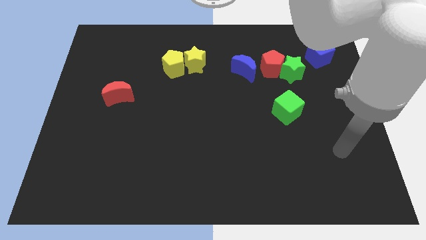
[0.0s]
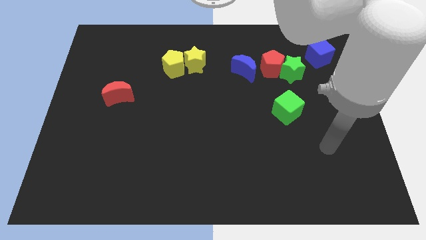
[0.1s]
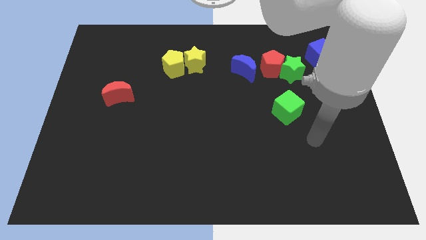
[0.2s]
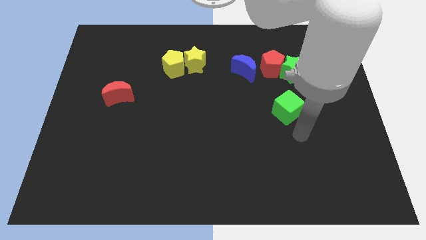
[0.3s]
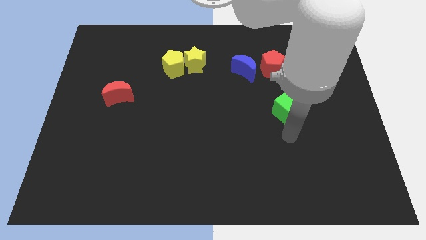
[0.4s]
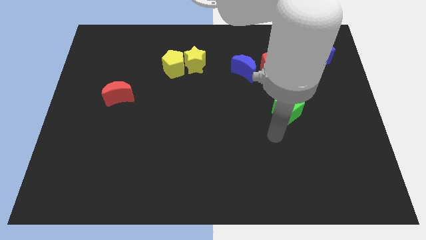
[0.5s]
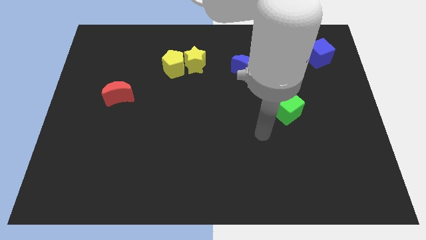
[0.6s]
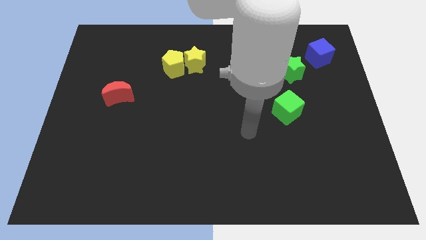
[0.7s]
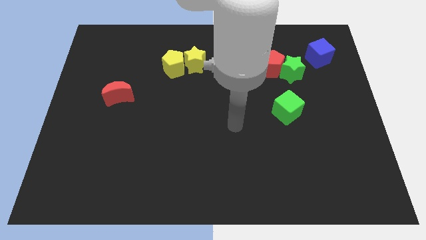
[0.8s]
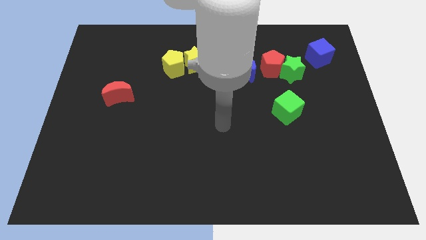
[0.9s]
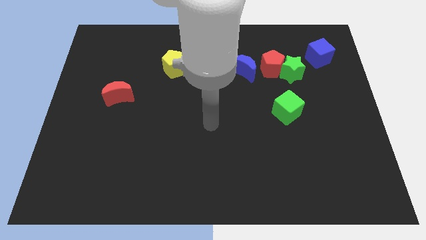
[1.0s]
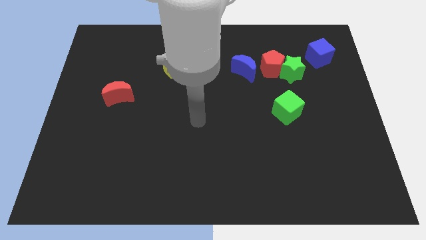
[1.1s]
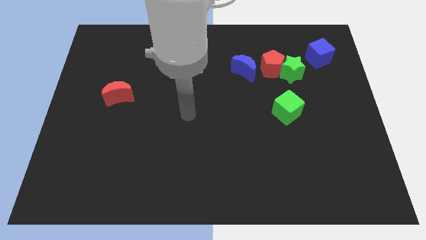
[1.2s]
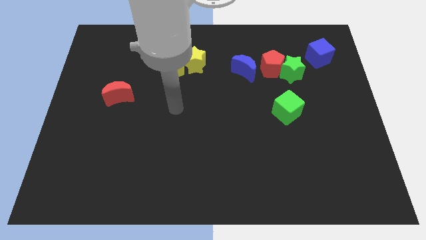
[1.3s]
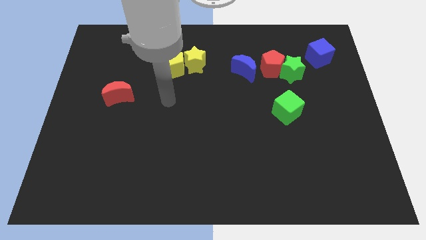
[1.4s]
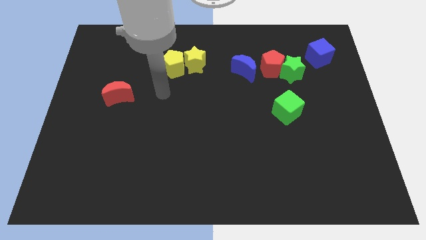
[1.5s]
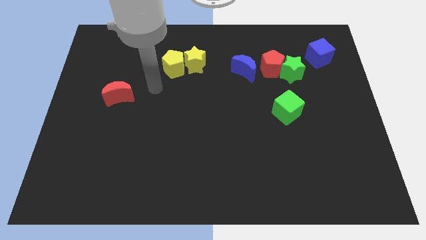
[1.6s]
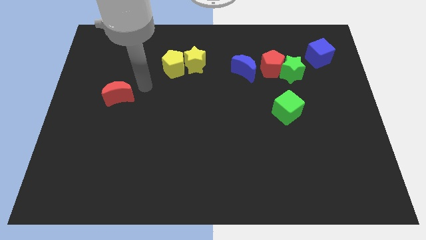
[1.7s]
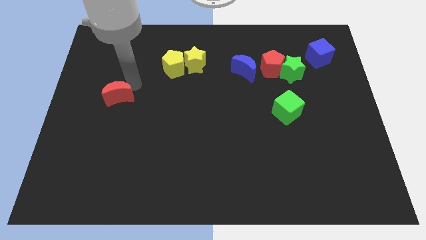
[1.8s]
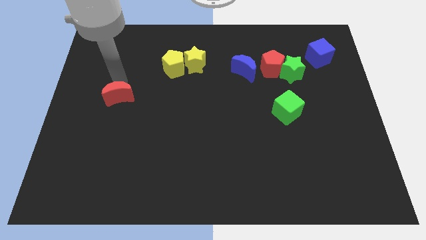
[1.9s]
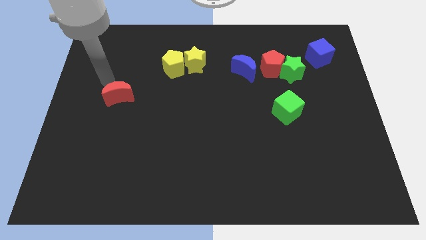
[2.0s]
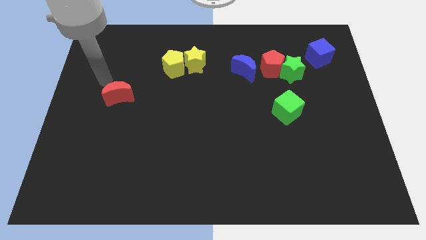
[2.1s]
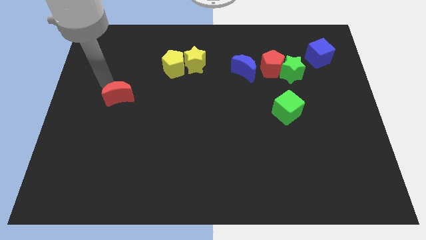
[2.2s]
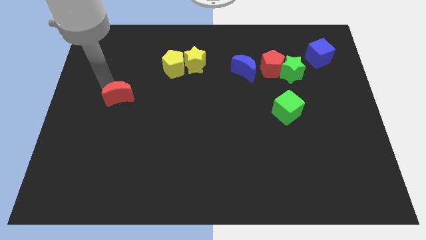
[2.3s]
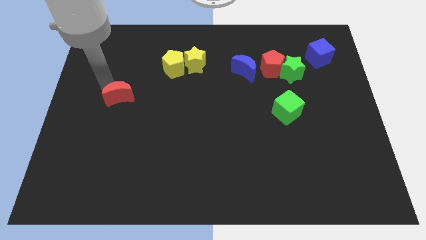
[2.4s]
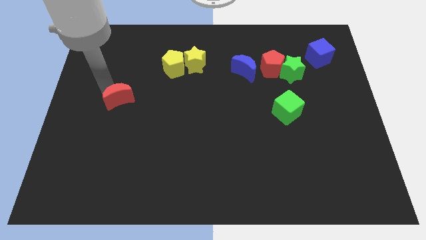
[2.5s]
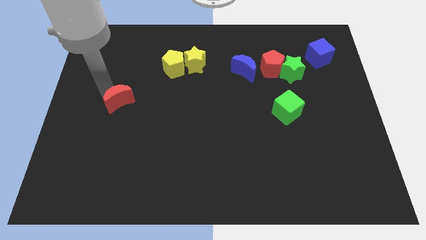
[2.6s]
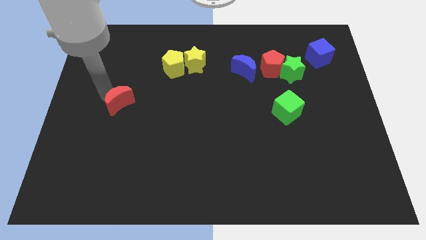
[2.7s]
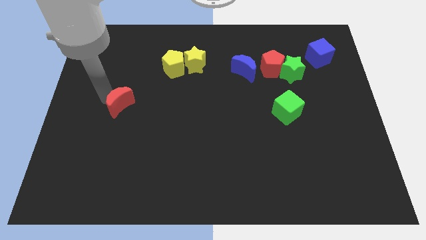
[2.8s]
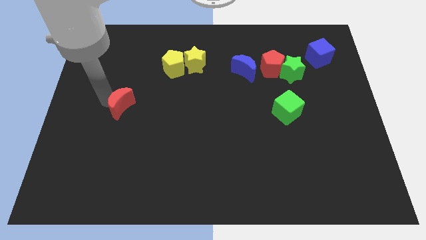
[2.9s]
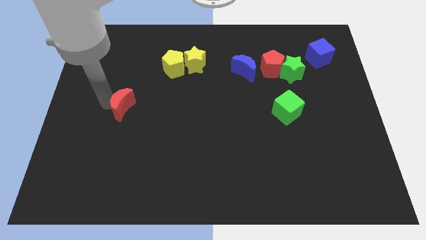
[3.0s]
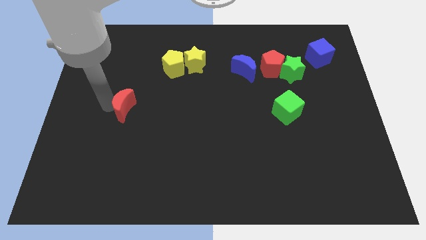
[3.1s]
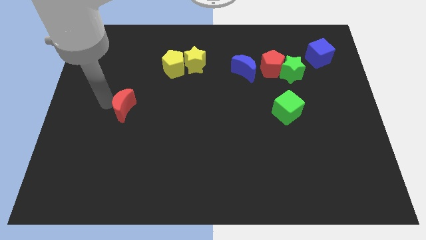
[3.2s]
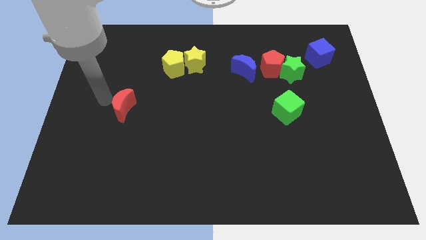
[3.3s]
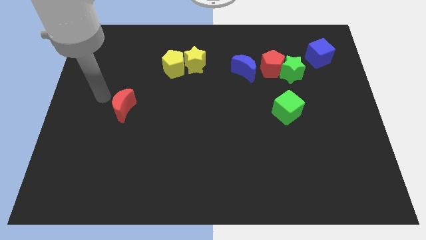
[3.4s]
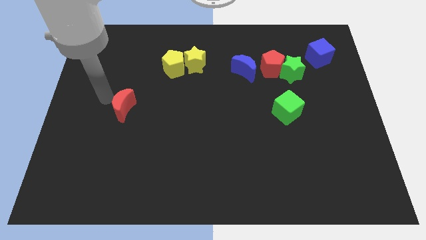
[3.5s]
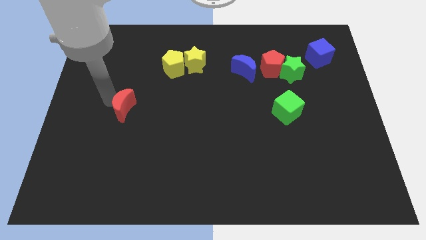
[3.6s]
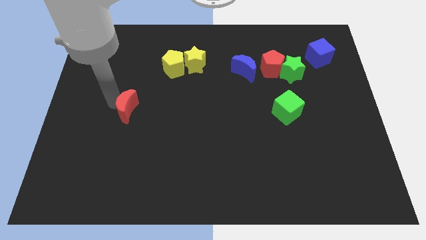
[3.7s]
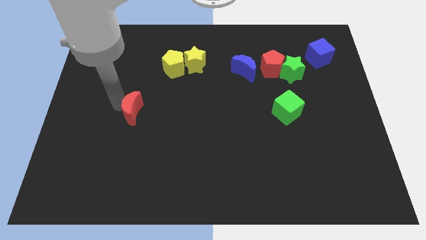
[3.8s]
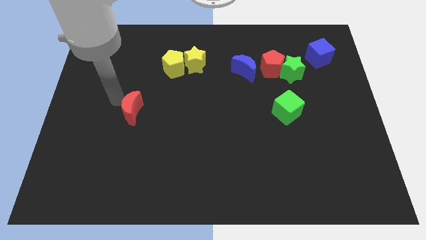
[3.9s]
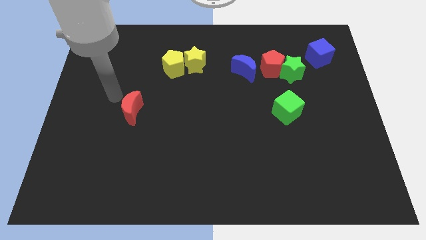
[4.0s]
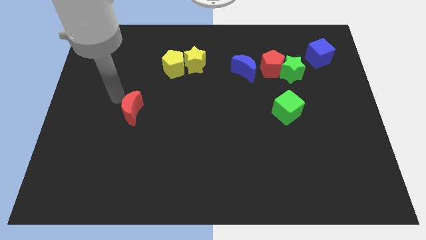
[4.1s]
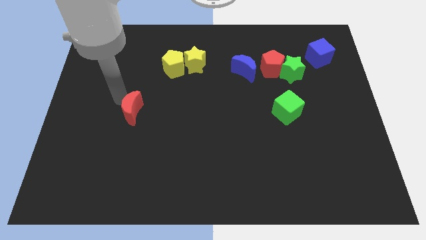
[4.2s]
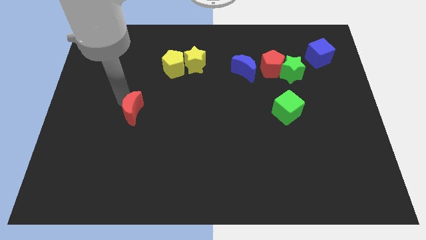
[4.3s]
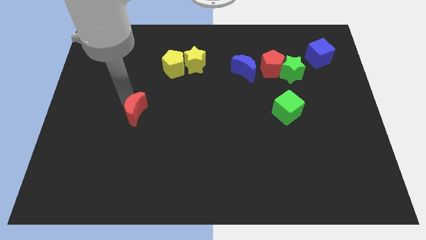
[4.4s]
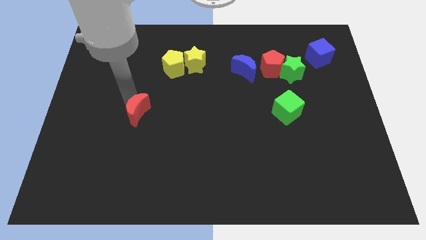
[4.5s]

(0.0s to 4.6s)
slide the red moon down and to the right diagonally slightly

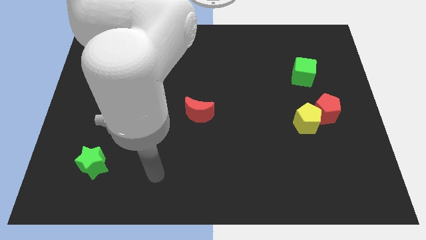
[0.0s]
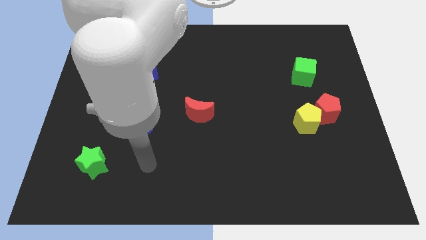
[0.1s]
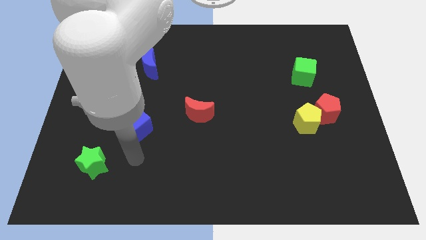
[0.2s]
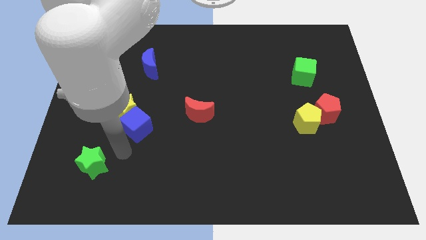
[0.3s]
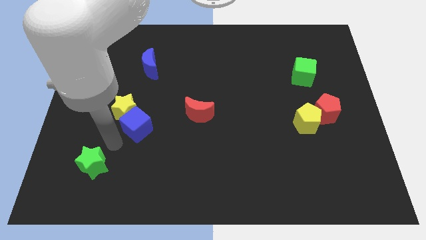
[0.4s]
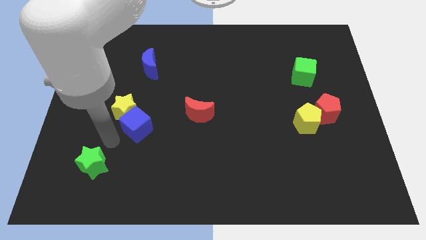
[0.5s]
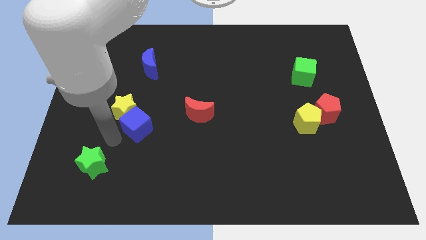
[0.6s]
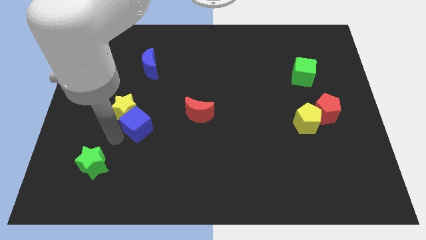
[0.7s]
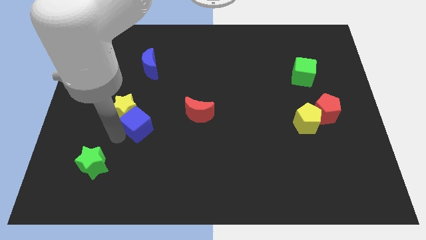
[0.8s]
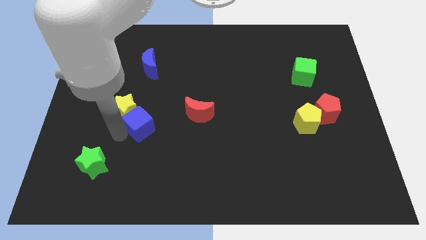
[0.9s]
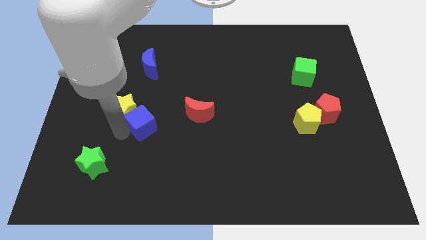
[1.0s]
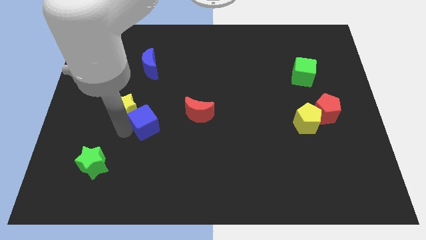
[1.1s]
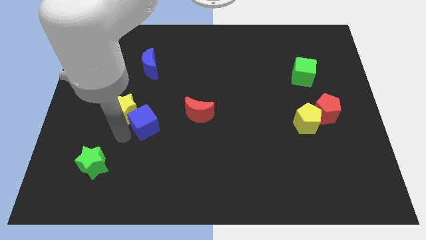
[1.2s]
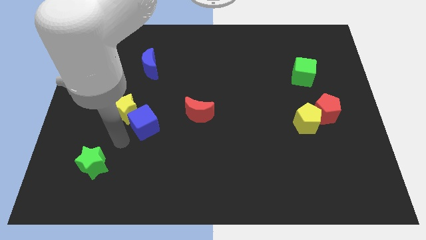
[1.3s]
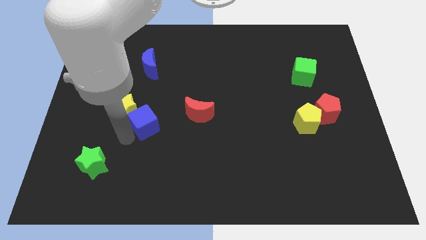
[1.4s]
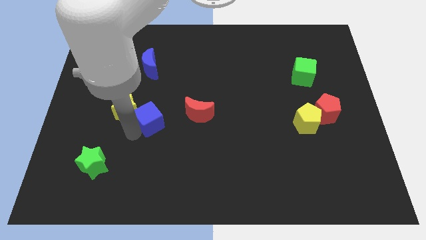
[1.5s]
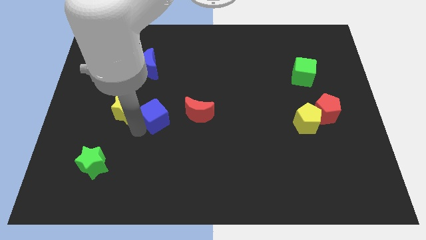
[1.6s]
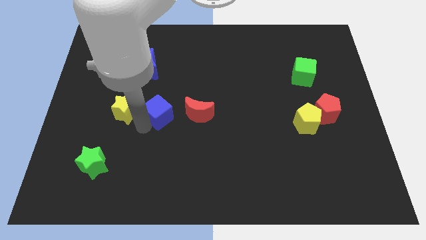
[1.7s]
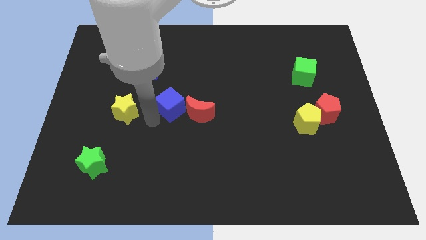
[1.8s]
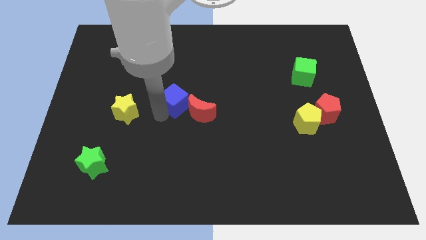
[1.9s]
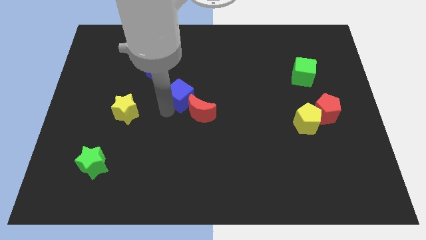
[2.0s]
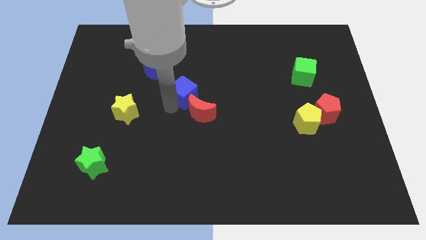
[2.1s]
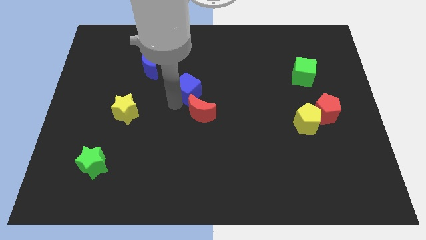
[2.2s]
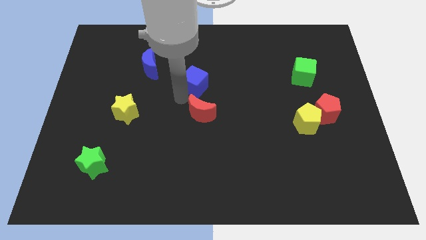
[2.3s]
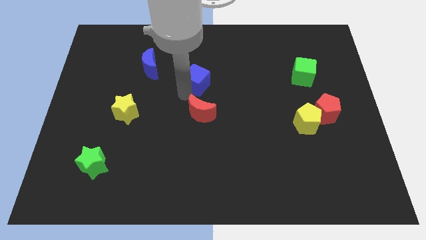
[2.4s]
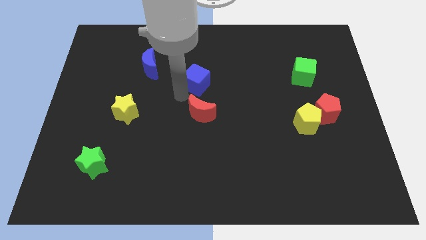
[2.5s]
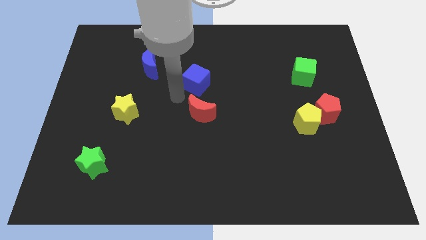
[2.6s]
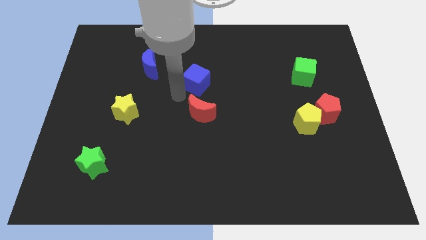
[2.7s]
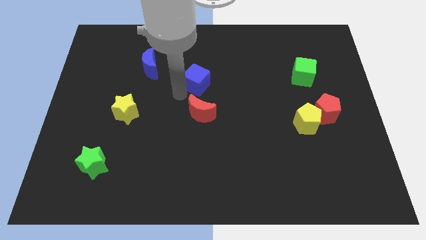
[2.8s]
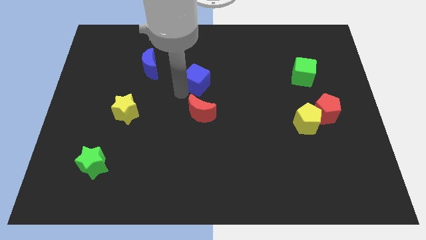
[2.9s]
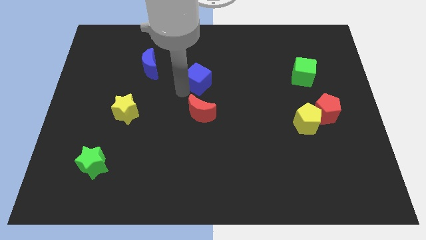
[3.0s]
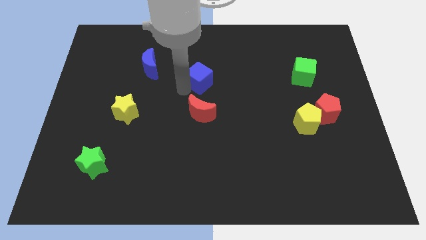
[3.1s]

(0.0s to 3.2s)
slide the blue cube up and then to the right
